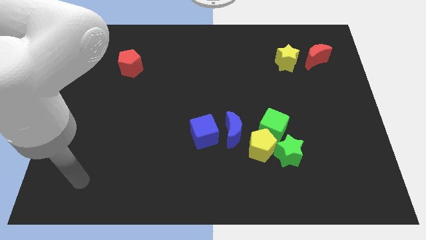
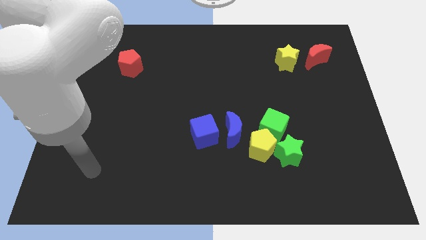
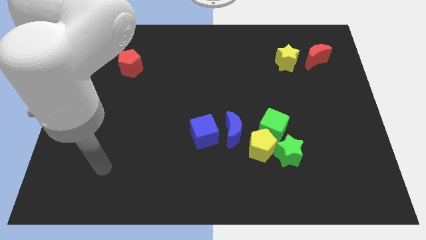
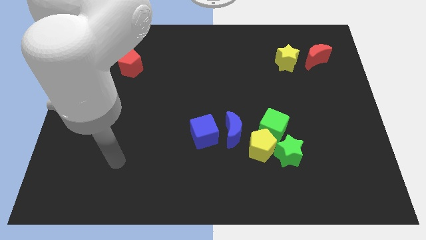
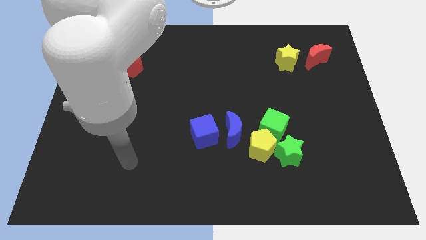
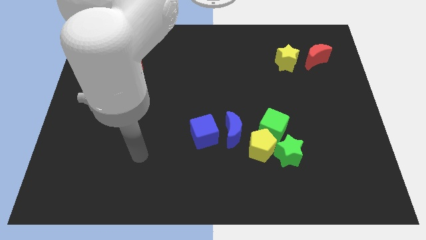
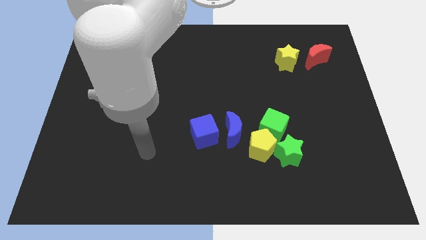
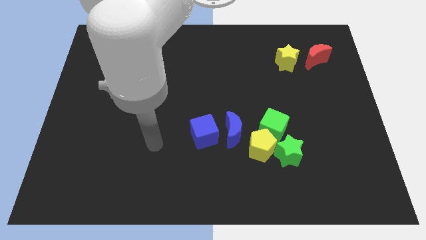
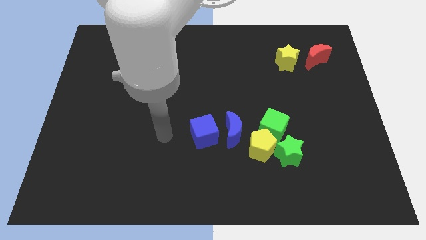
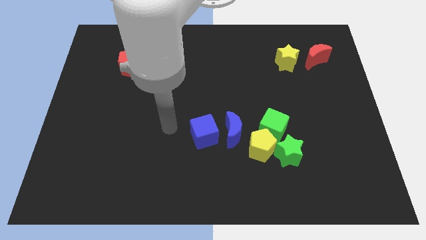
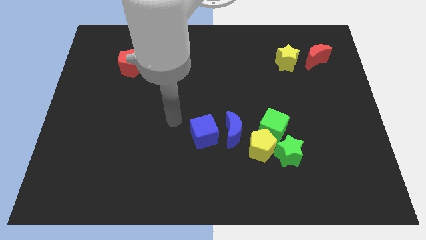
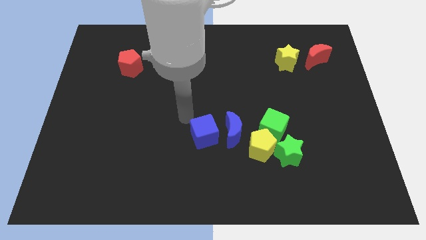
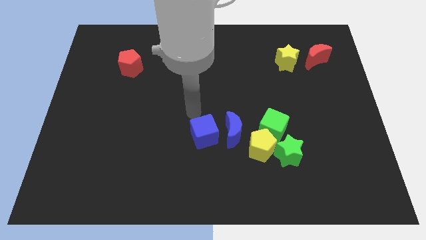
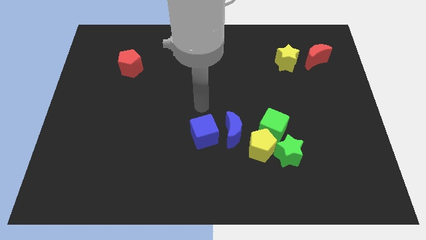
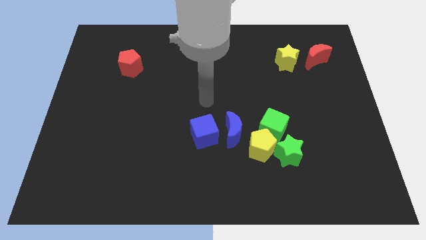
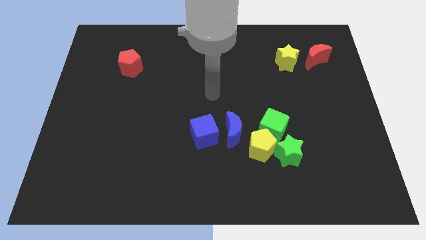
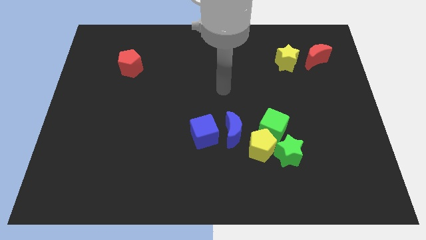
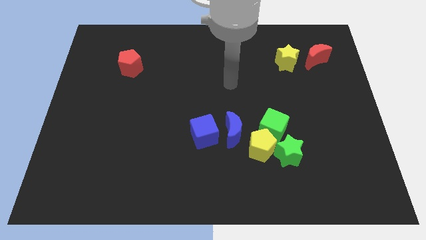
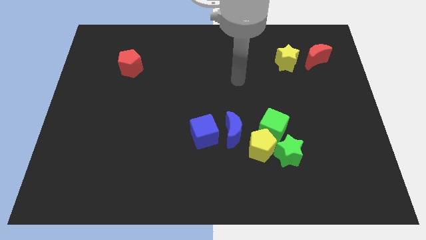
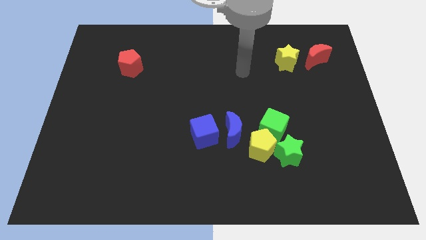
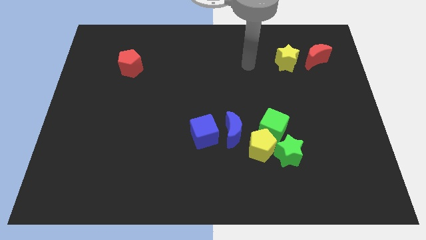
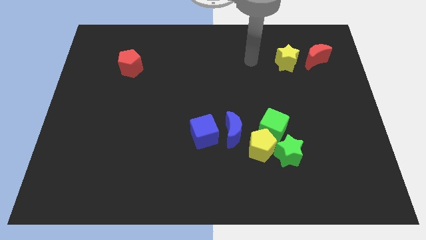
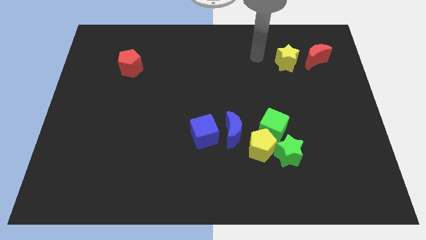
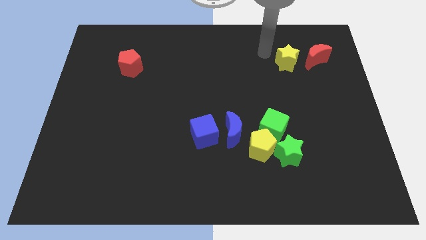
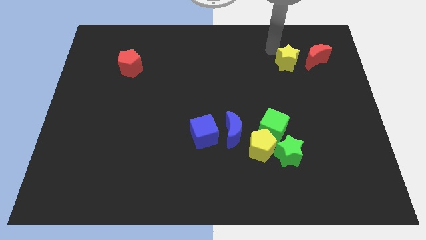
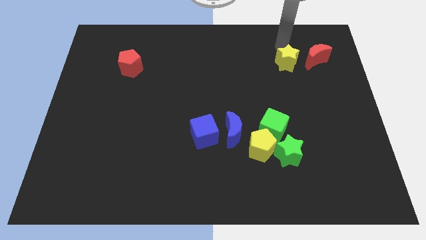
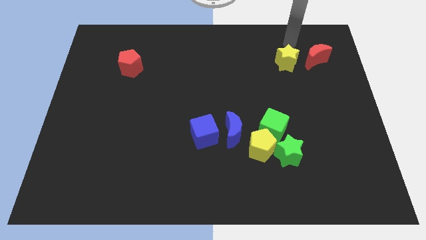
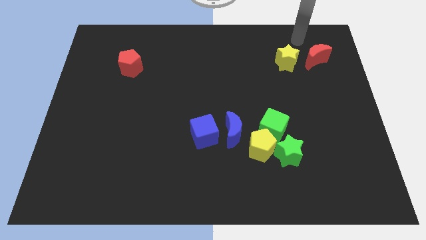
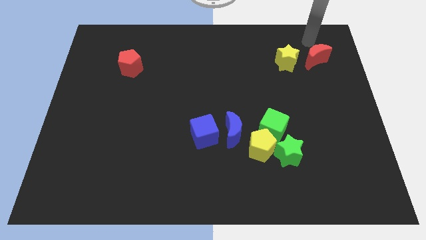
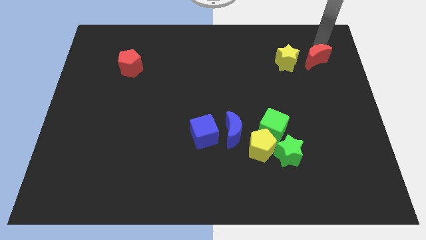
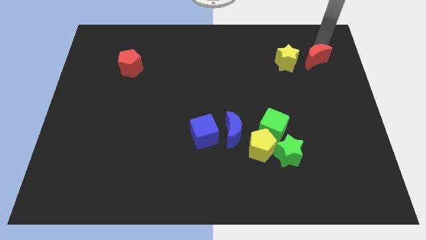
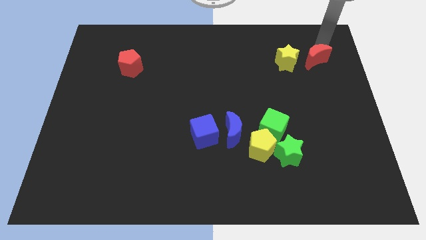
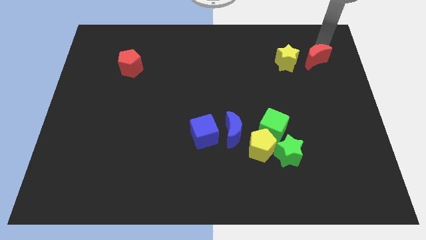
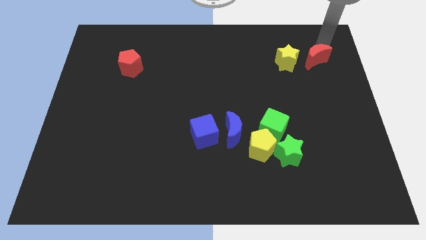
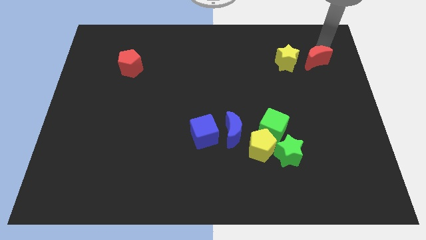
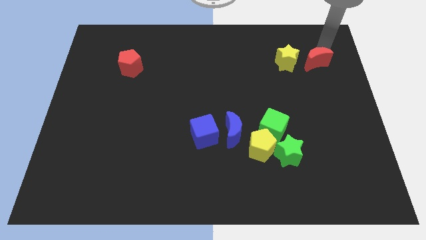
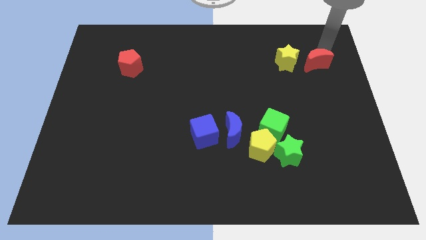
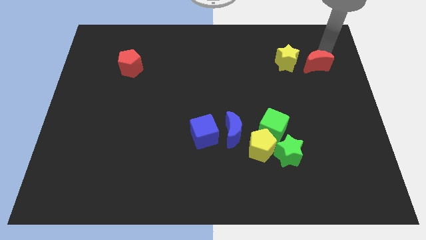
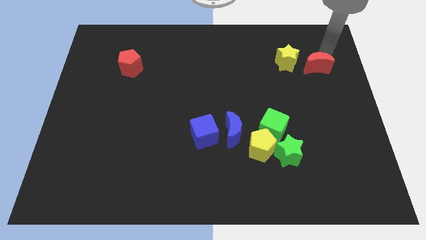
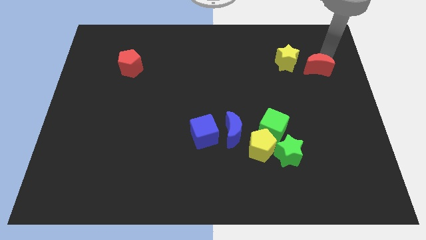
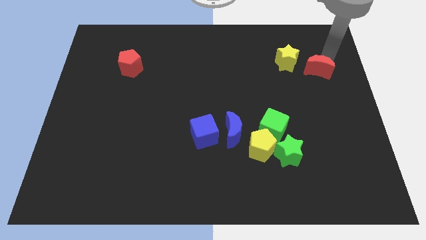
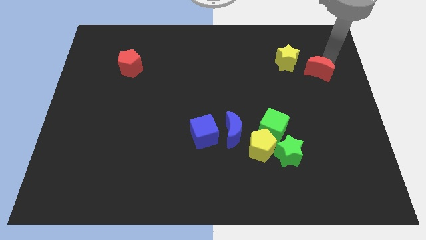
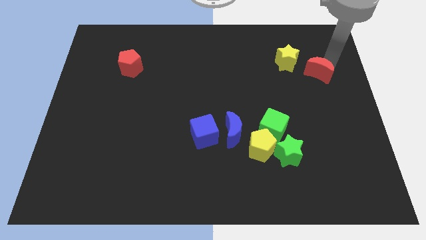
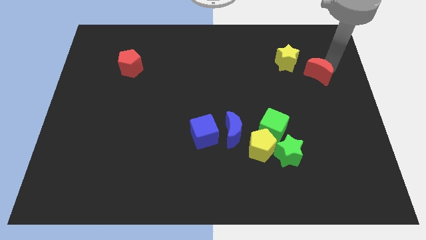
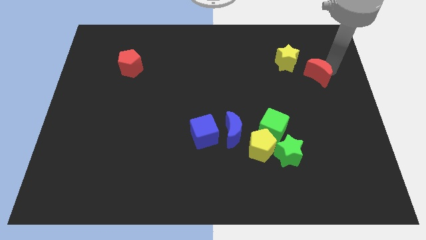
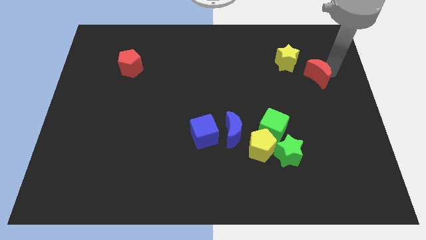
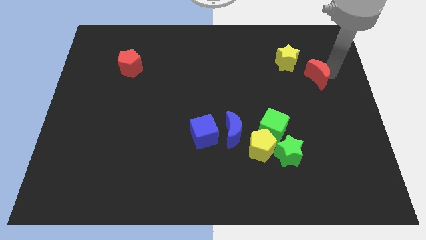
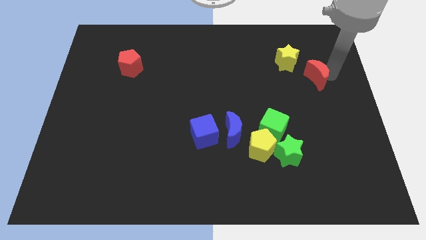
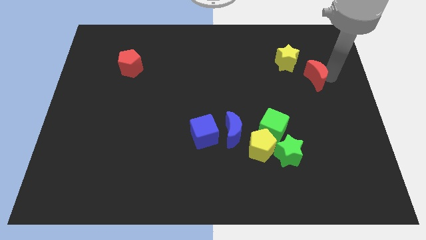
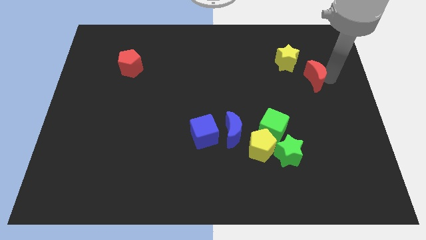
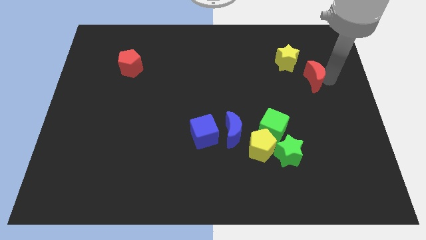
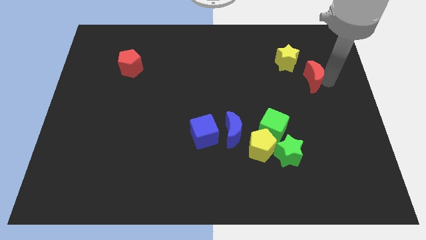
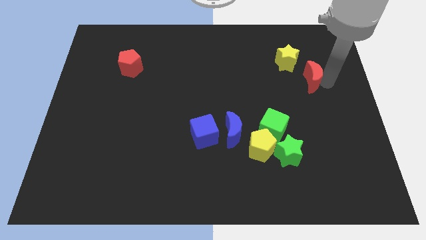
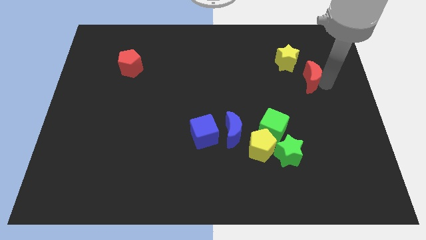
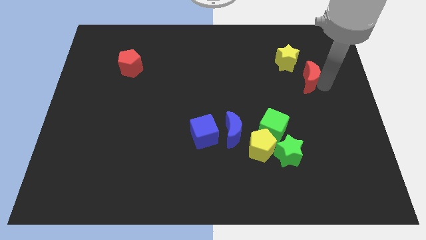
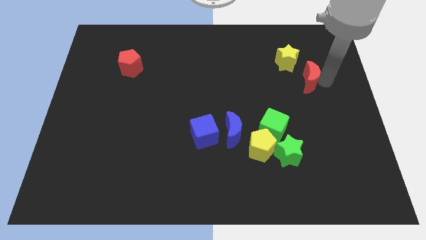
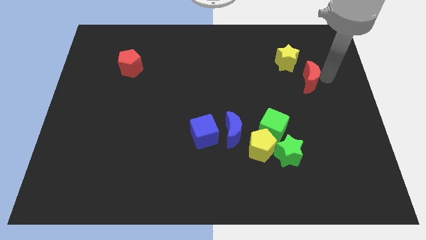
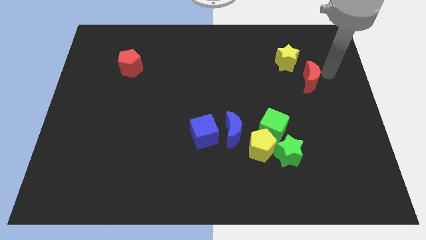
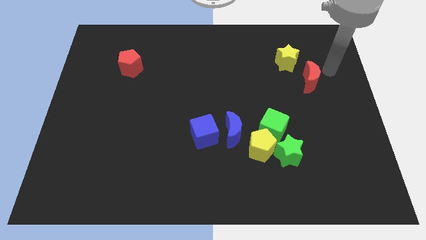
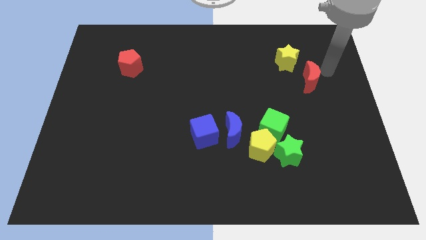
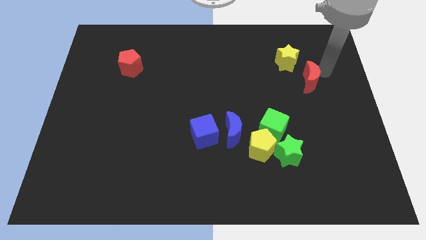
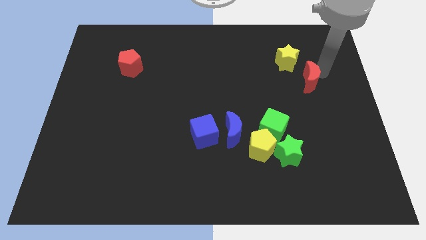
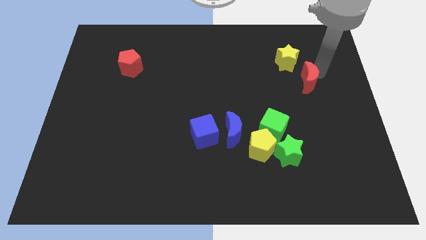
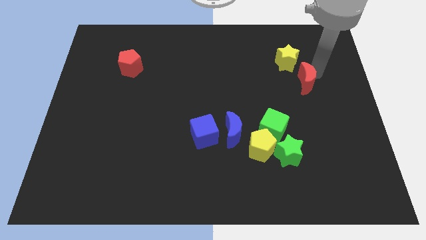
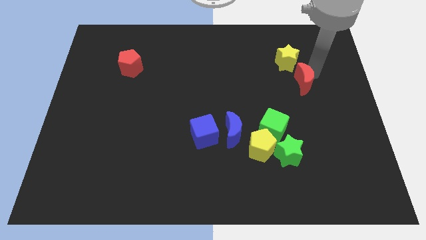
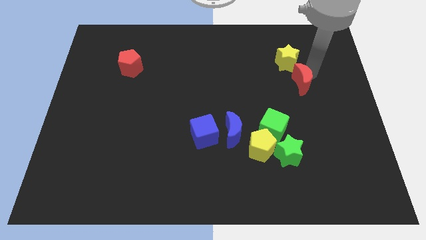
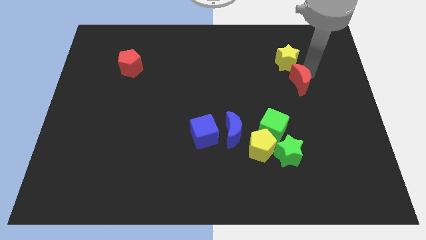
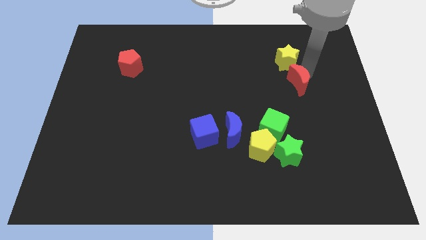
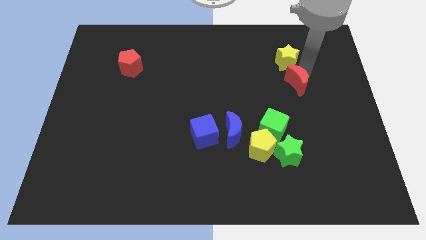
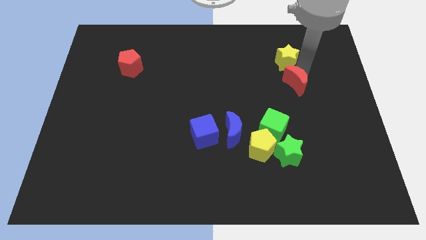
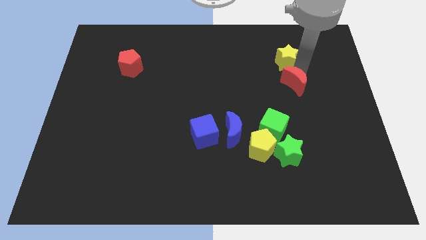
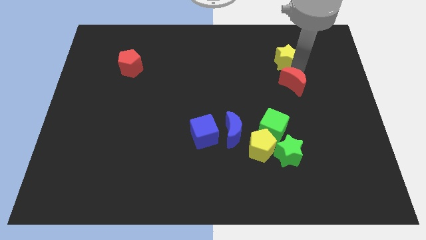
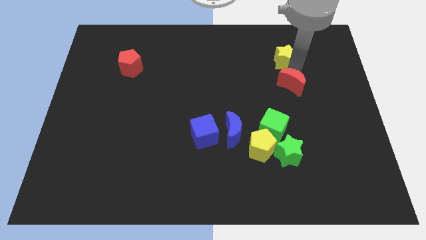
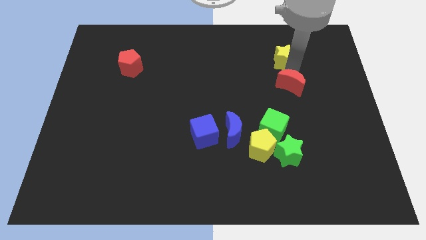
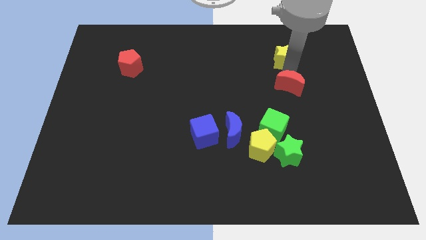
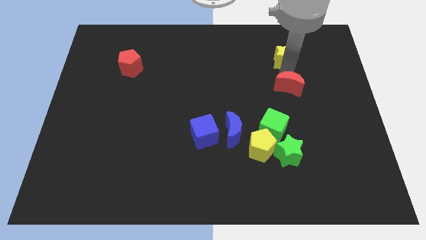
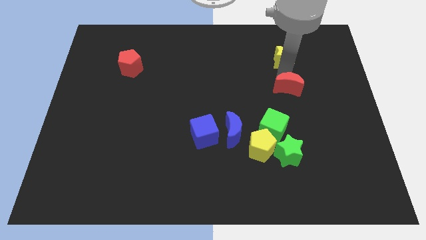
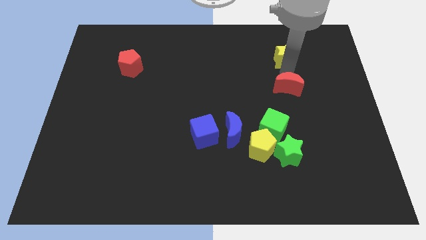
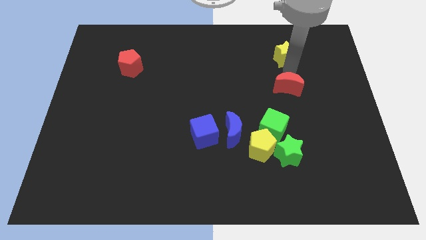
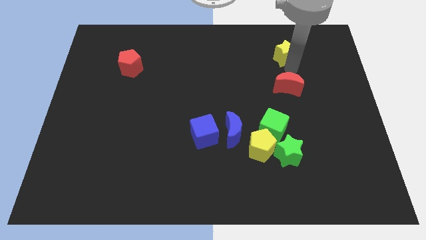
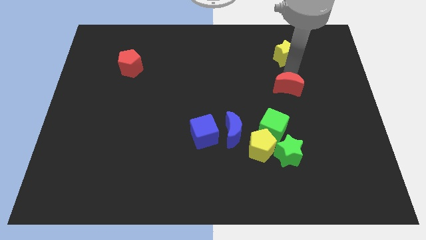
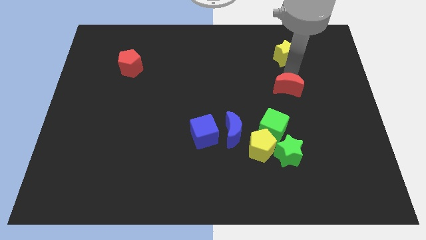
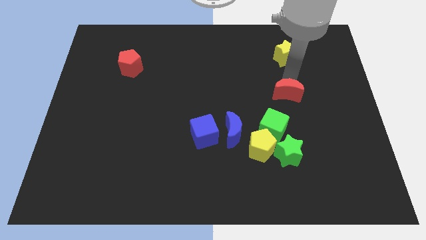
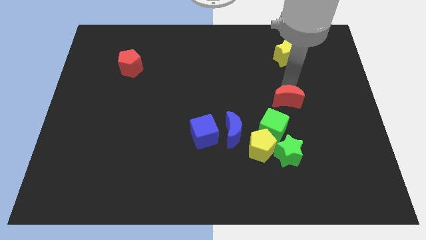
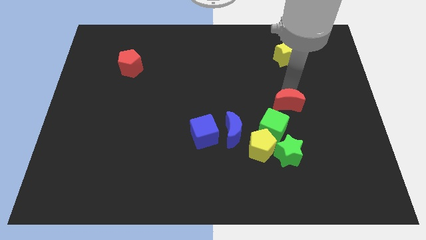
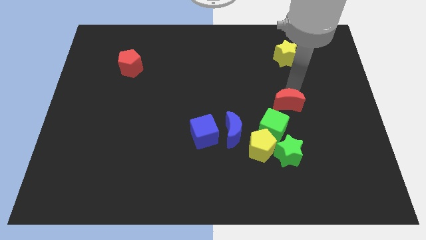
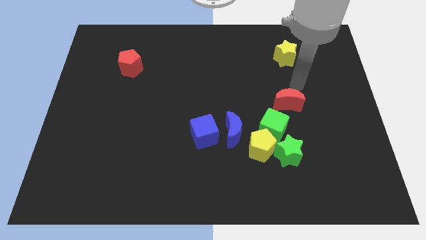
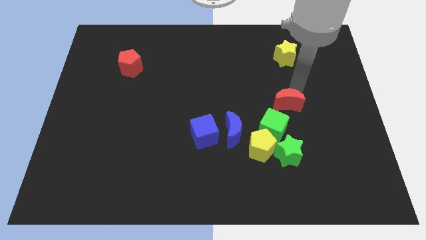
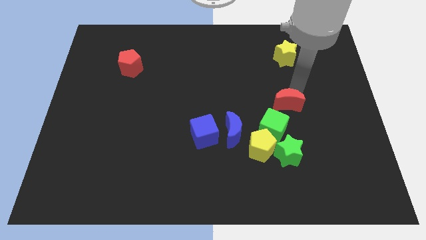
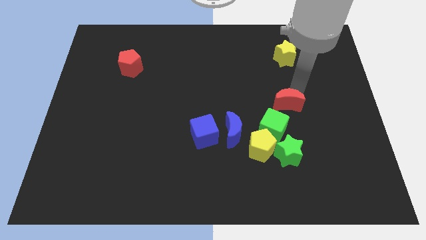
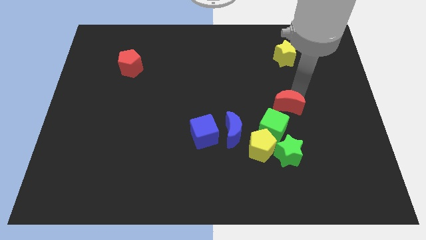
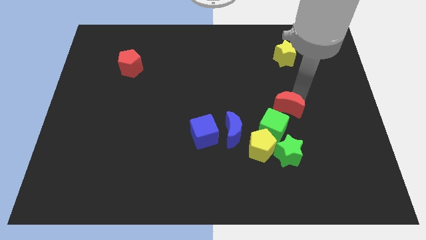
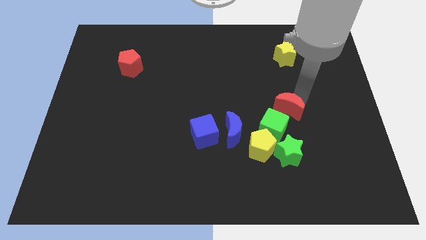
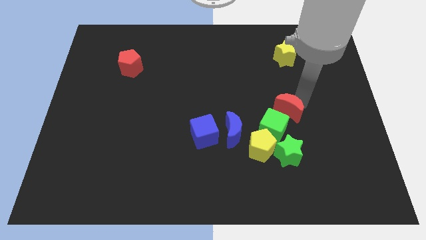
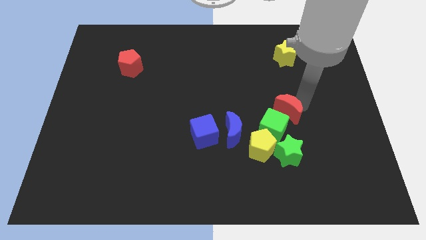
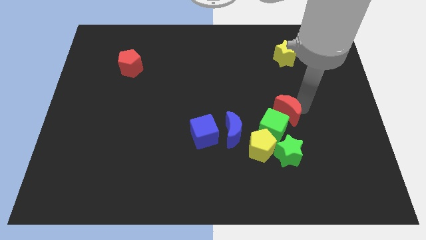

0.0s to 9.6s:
slide the red moon close to the green cube
